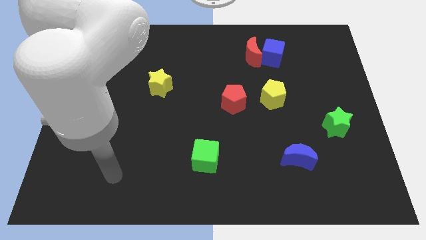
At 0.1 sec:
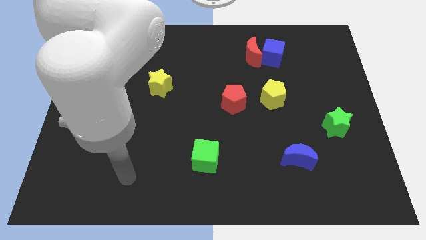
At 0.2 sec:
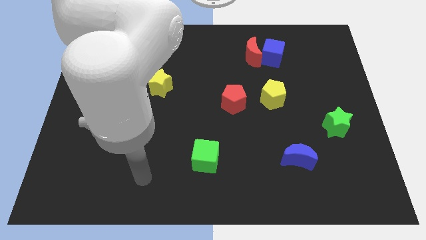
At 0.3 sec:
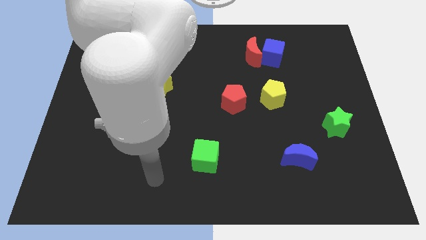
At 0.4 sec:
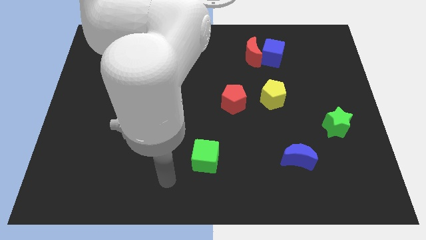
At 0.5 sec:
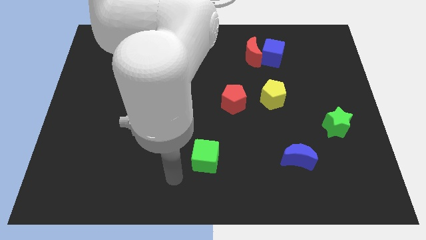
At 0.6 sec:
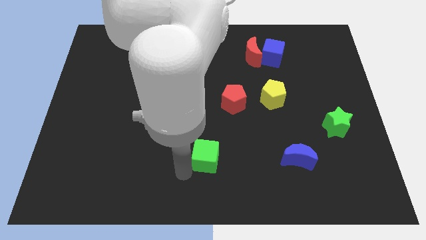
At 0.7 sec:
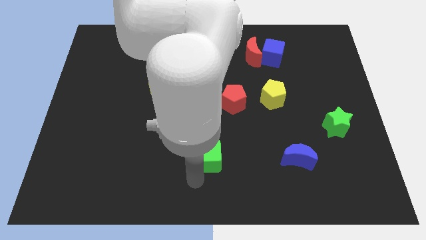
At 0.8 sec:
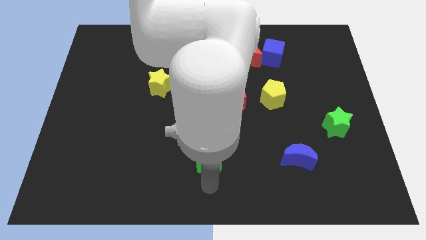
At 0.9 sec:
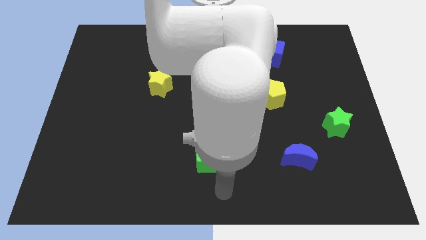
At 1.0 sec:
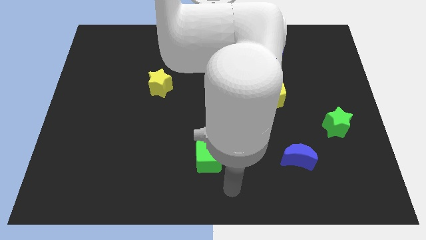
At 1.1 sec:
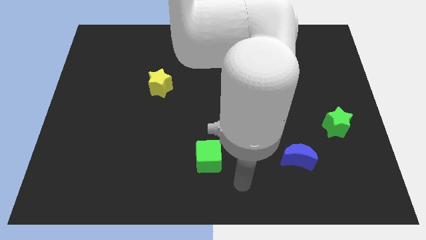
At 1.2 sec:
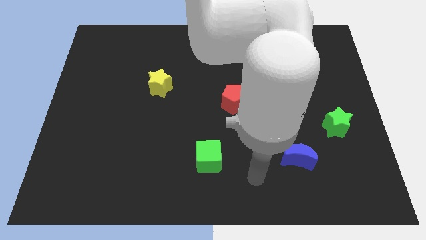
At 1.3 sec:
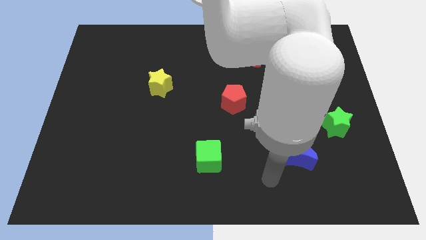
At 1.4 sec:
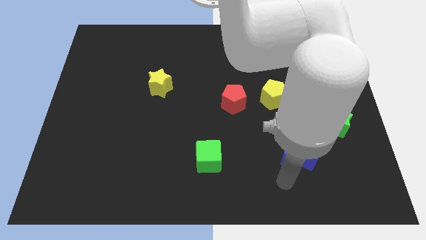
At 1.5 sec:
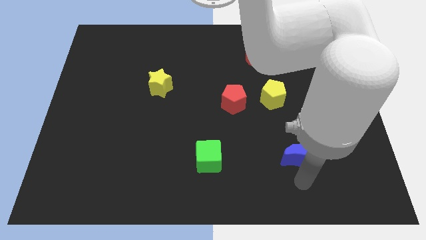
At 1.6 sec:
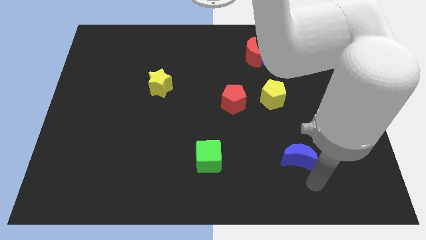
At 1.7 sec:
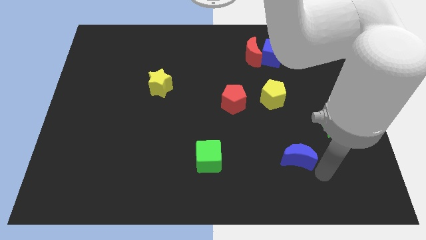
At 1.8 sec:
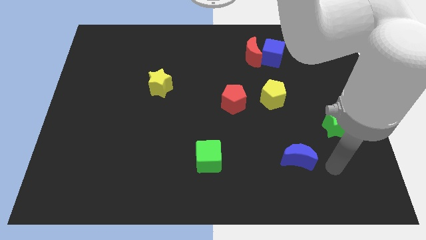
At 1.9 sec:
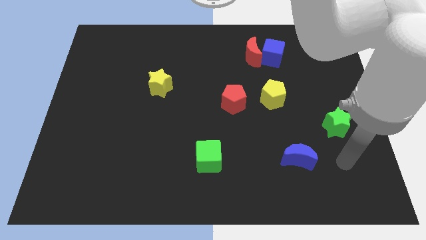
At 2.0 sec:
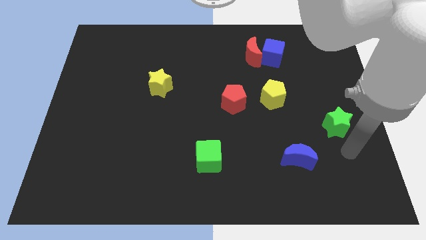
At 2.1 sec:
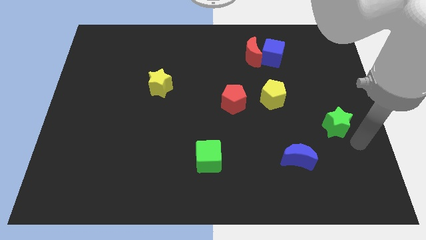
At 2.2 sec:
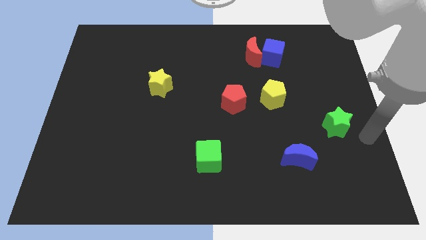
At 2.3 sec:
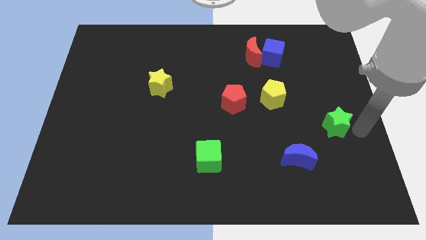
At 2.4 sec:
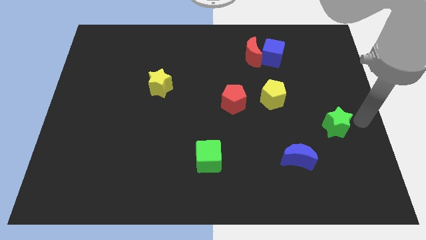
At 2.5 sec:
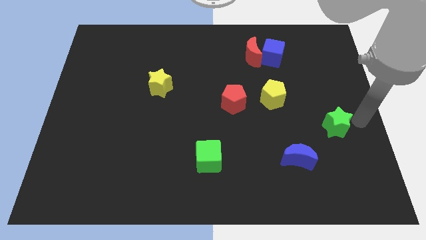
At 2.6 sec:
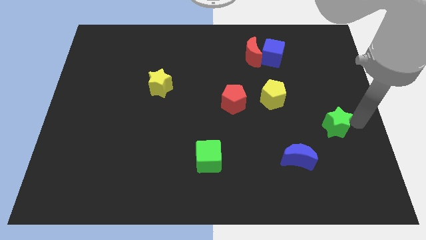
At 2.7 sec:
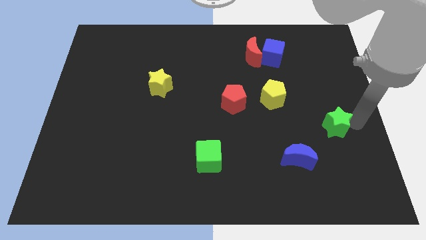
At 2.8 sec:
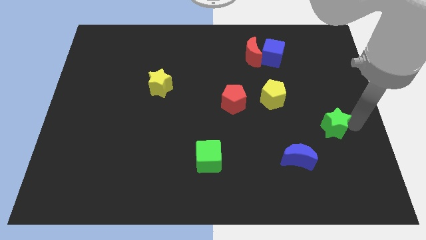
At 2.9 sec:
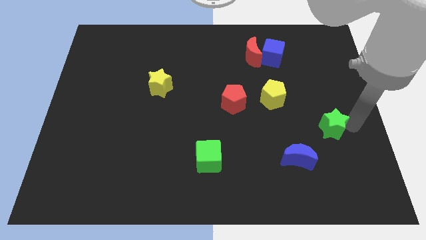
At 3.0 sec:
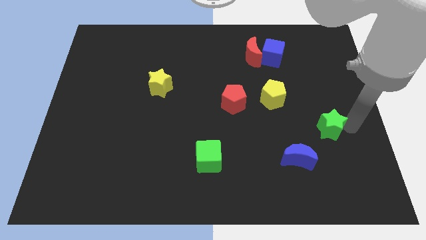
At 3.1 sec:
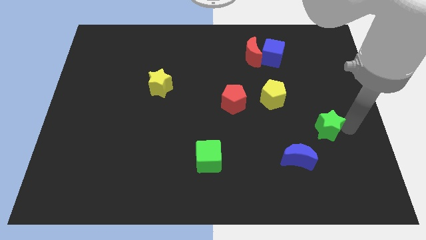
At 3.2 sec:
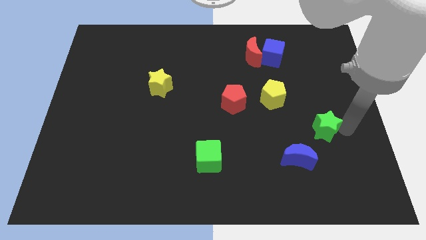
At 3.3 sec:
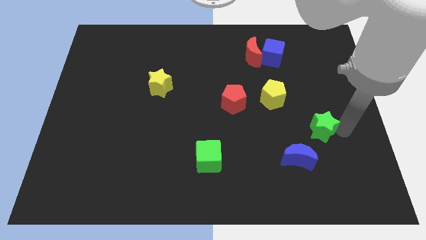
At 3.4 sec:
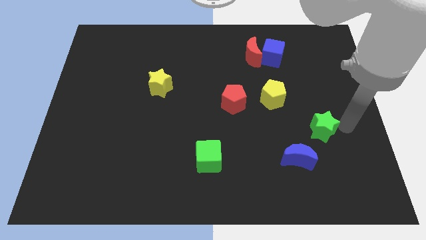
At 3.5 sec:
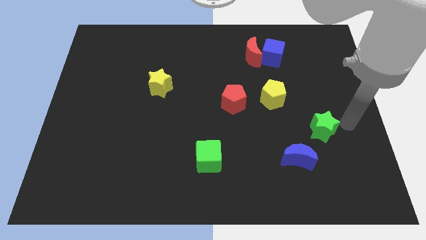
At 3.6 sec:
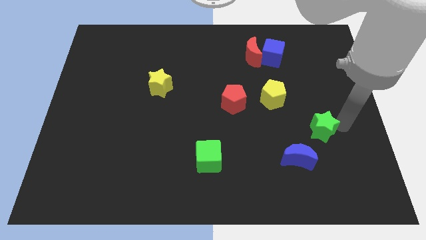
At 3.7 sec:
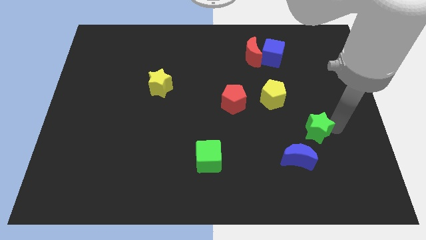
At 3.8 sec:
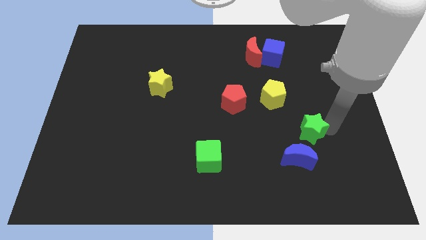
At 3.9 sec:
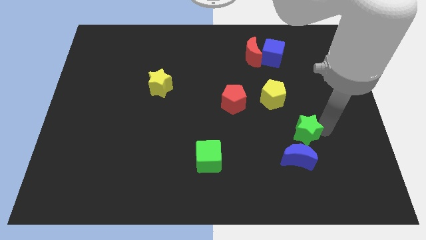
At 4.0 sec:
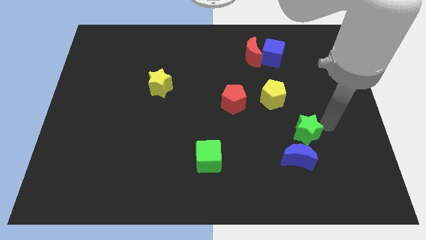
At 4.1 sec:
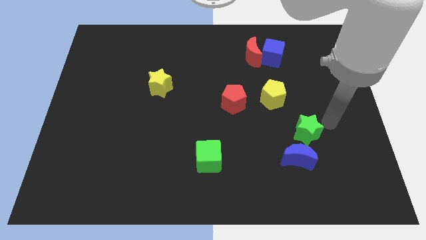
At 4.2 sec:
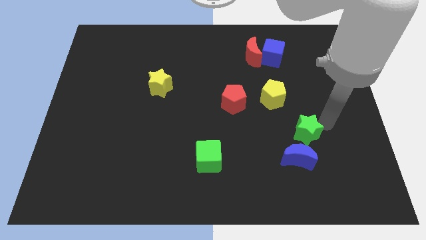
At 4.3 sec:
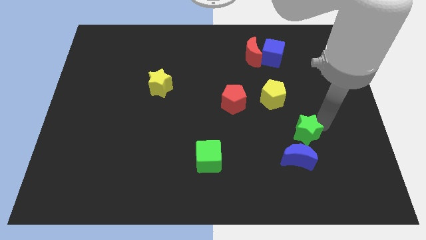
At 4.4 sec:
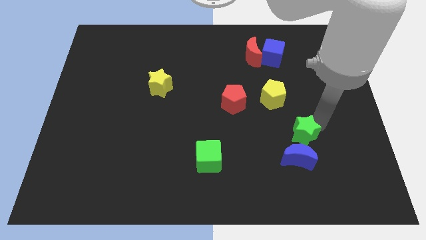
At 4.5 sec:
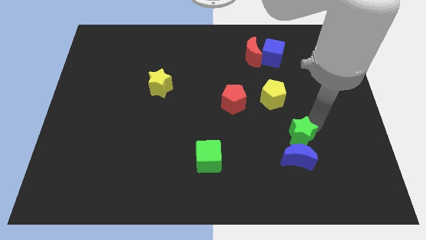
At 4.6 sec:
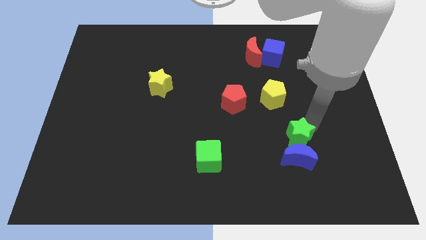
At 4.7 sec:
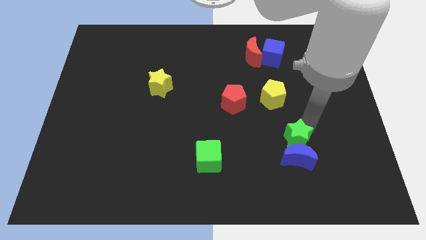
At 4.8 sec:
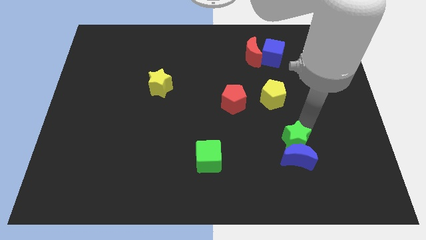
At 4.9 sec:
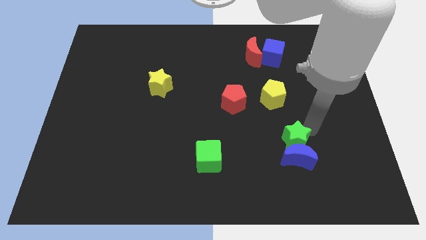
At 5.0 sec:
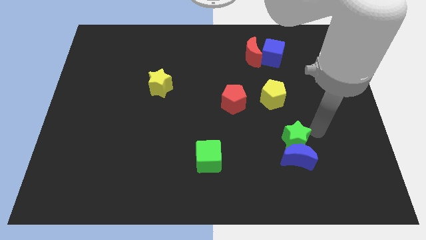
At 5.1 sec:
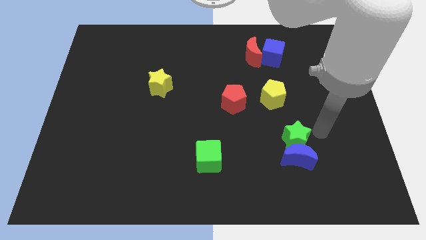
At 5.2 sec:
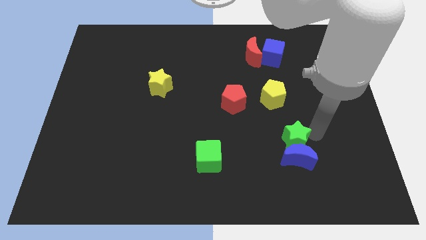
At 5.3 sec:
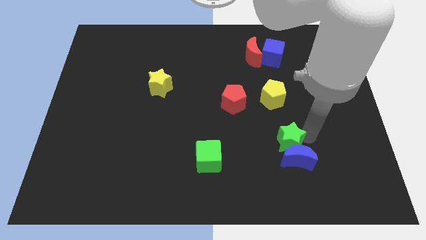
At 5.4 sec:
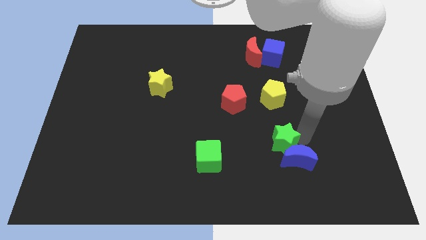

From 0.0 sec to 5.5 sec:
push the green star to the left of the blue moon

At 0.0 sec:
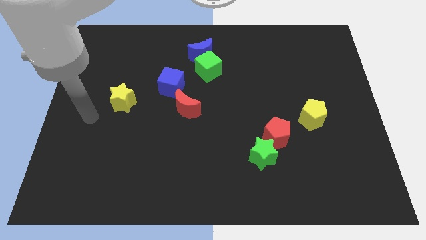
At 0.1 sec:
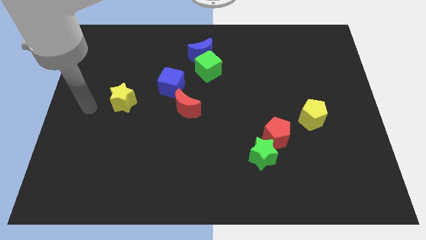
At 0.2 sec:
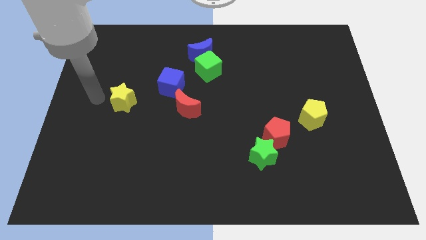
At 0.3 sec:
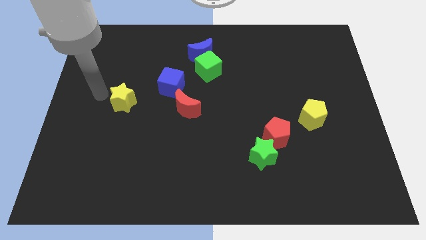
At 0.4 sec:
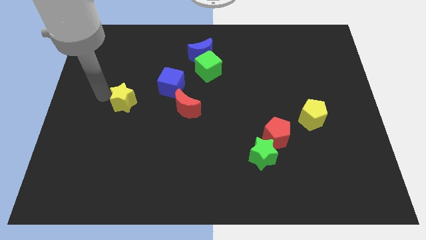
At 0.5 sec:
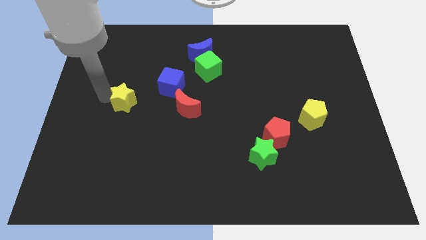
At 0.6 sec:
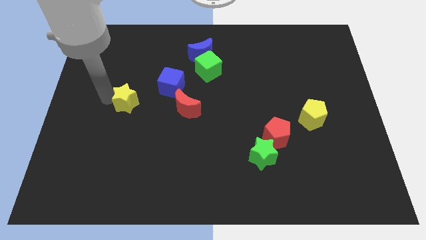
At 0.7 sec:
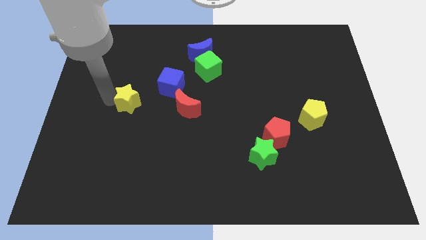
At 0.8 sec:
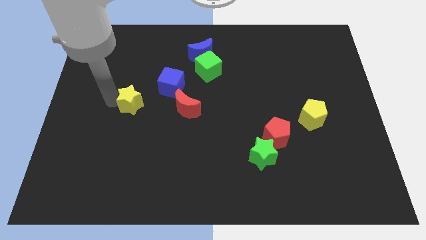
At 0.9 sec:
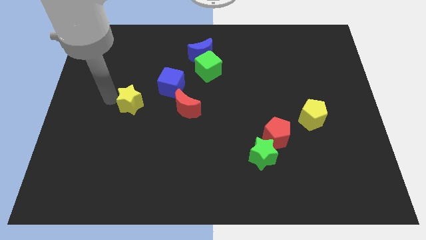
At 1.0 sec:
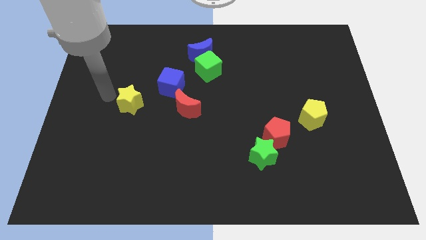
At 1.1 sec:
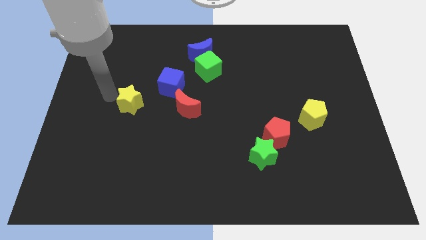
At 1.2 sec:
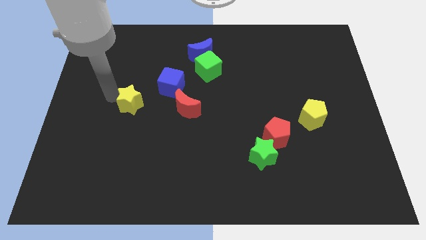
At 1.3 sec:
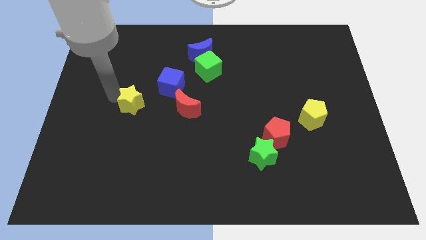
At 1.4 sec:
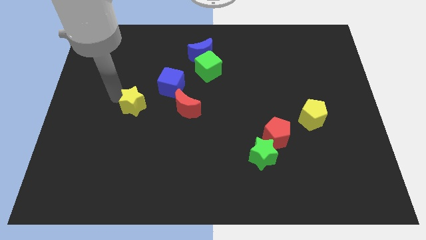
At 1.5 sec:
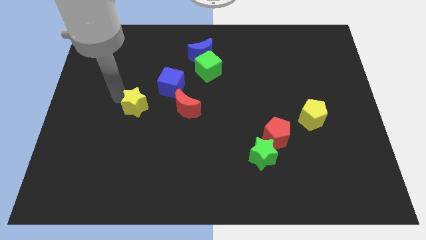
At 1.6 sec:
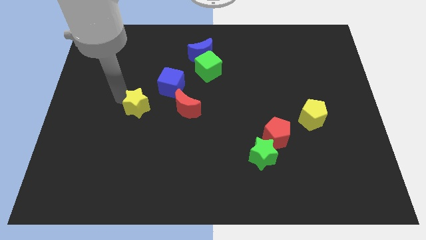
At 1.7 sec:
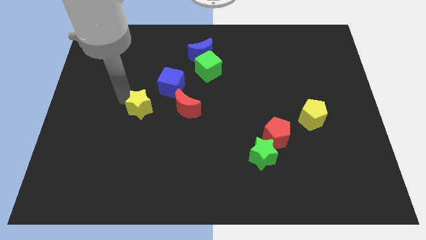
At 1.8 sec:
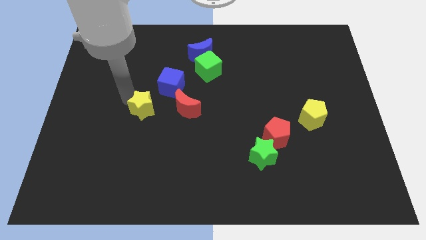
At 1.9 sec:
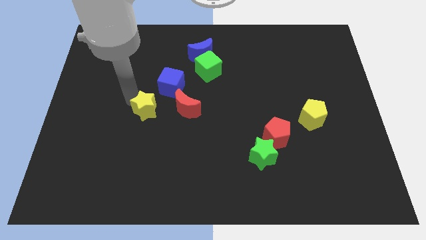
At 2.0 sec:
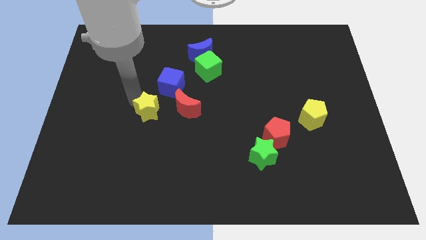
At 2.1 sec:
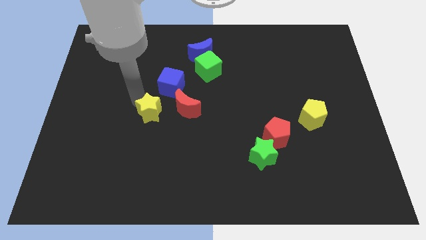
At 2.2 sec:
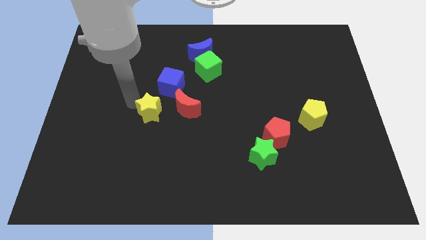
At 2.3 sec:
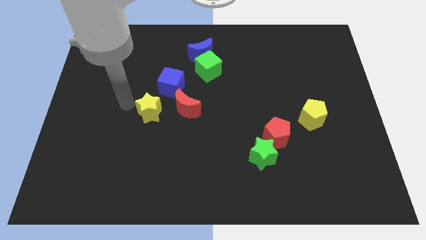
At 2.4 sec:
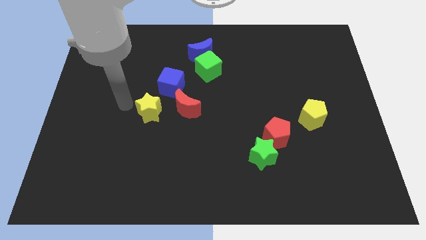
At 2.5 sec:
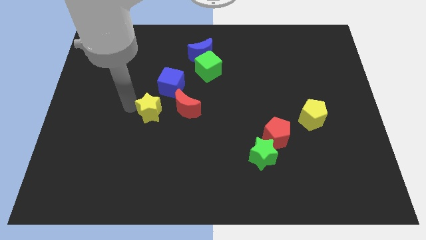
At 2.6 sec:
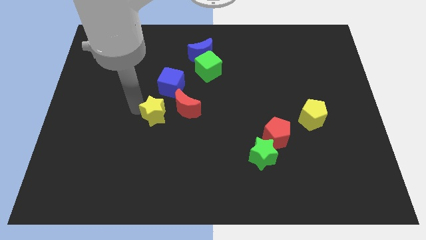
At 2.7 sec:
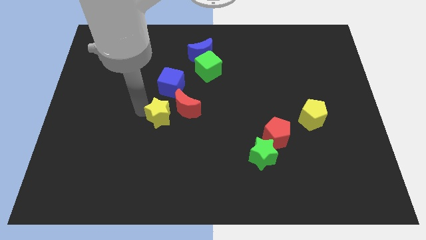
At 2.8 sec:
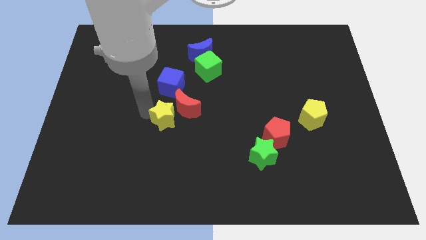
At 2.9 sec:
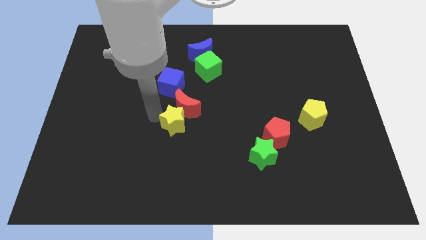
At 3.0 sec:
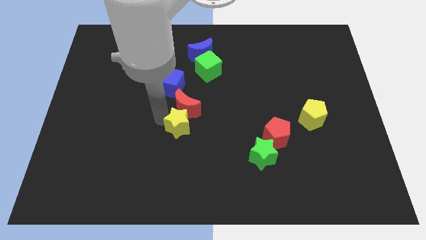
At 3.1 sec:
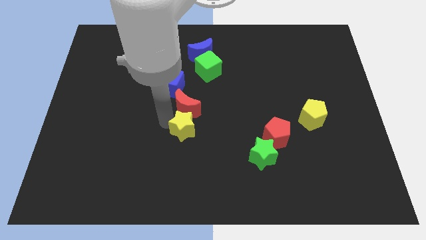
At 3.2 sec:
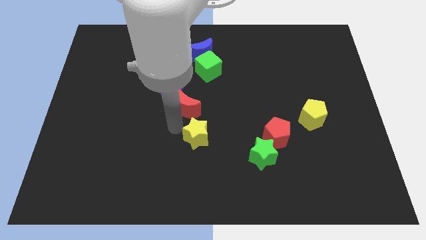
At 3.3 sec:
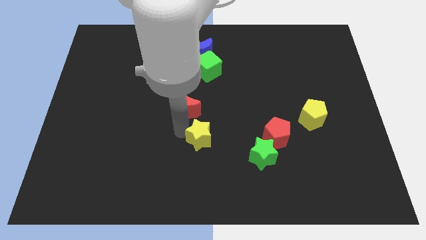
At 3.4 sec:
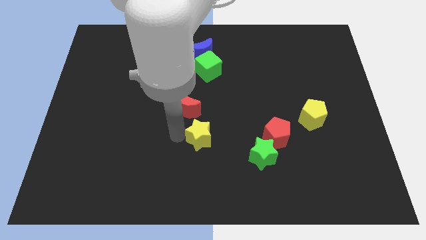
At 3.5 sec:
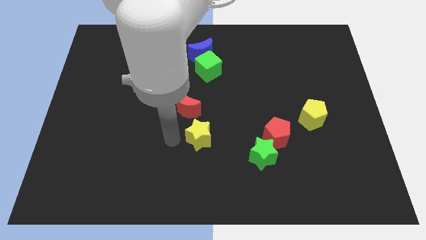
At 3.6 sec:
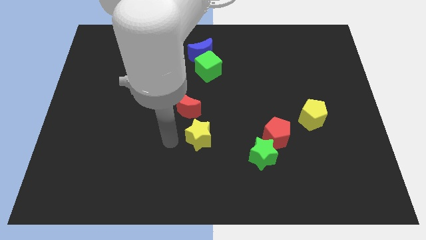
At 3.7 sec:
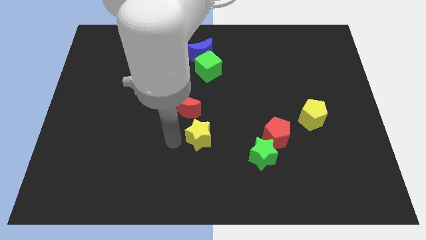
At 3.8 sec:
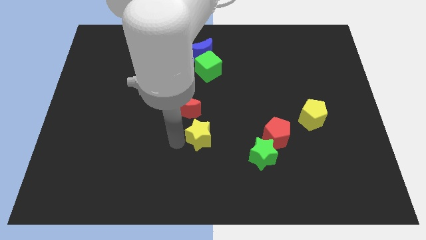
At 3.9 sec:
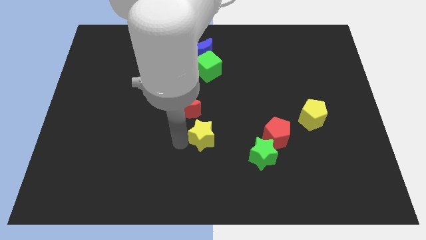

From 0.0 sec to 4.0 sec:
slide the yellow star just left of the red pentagon
